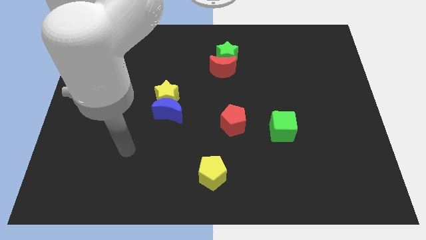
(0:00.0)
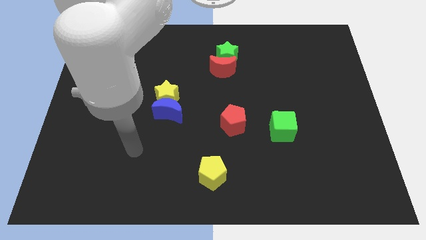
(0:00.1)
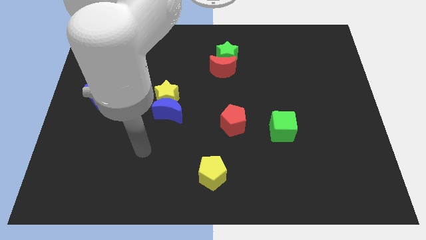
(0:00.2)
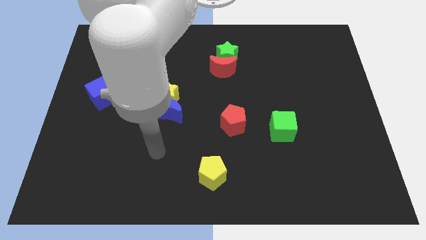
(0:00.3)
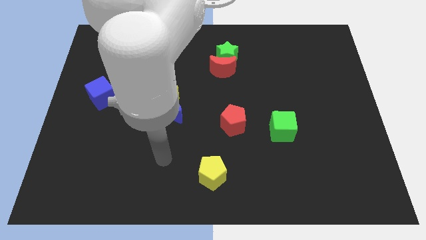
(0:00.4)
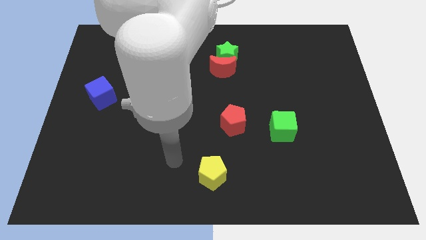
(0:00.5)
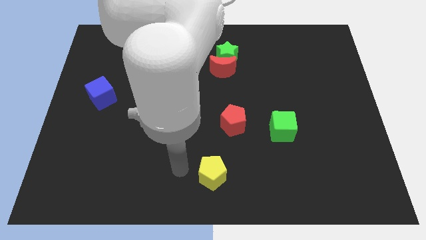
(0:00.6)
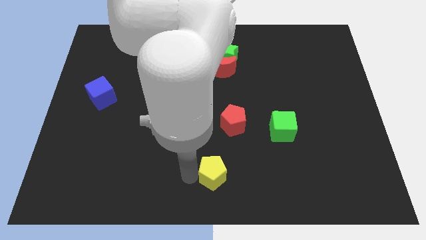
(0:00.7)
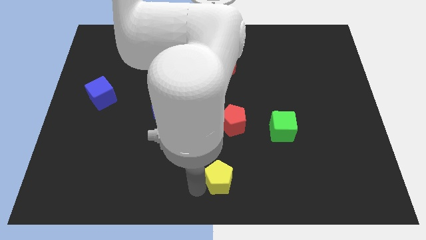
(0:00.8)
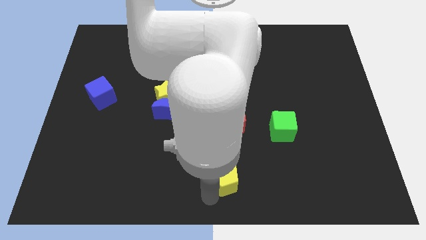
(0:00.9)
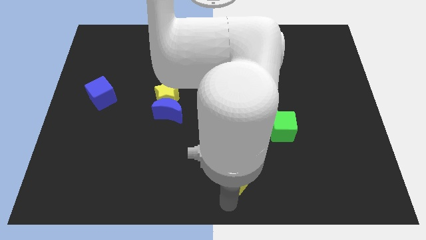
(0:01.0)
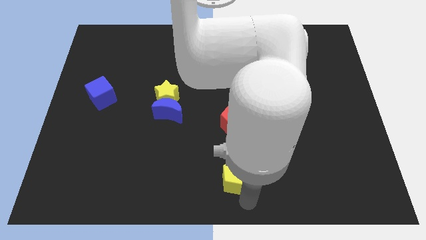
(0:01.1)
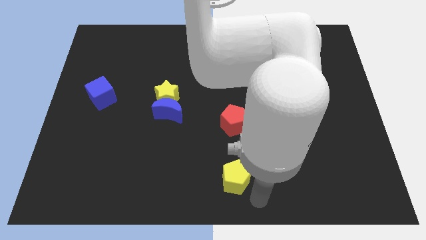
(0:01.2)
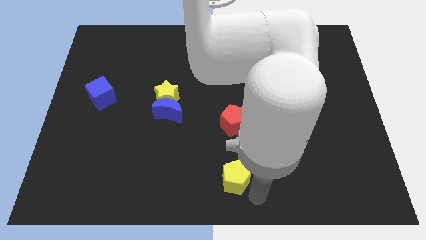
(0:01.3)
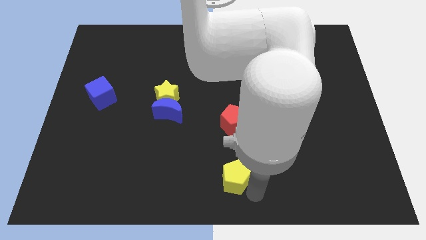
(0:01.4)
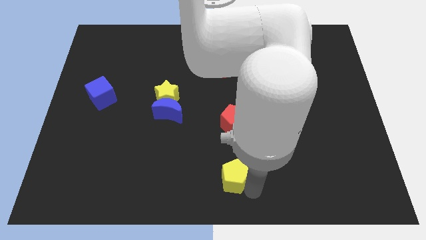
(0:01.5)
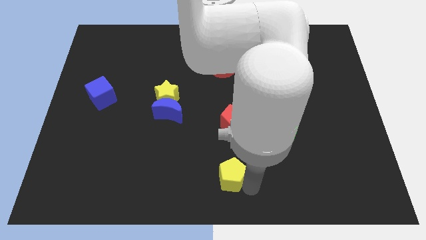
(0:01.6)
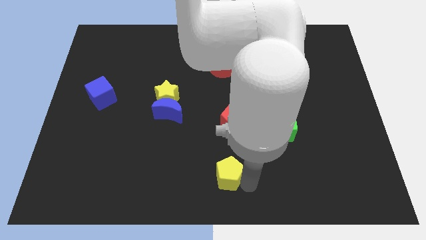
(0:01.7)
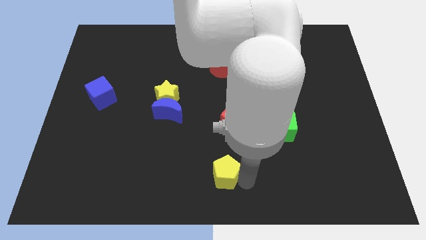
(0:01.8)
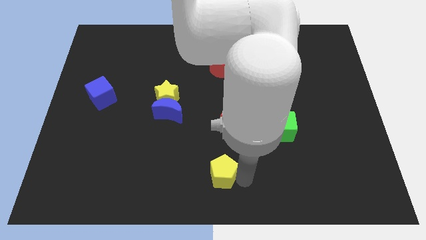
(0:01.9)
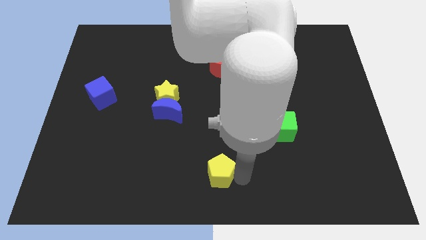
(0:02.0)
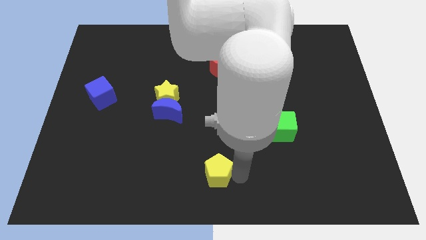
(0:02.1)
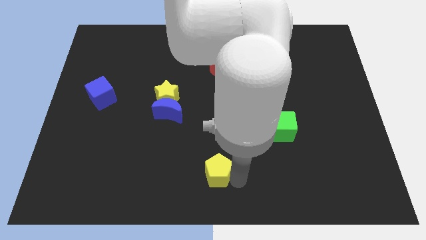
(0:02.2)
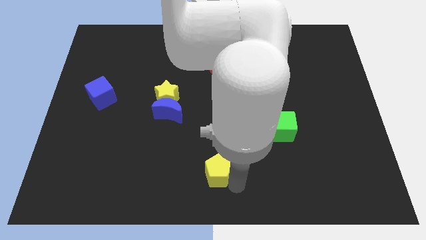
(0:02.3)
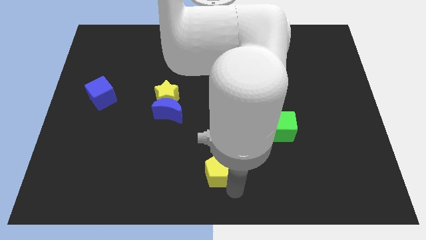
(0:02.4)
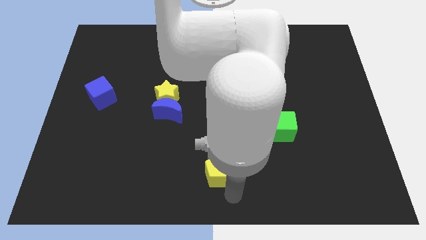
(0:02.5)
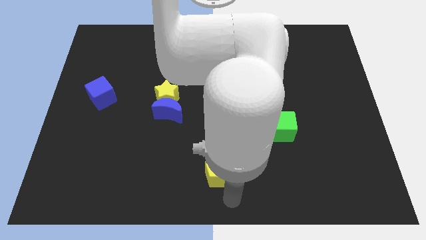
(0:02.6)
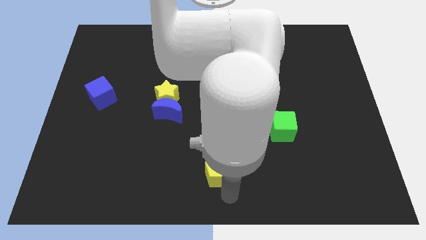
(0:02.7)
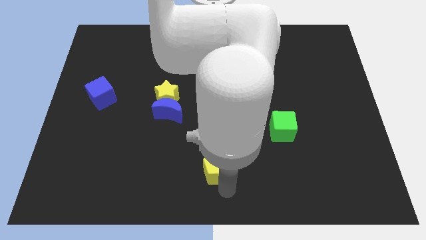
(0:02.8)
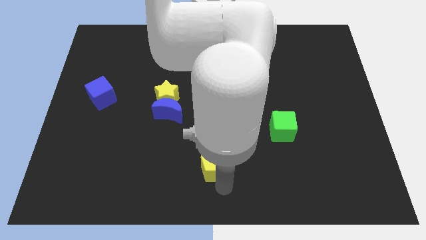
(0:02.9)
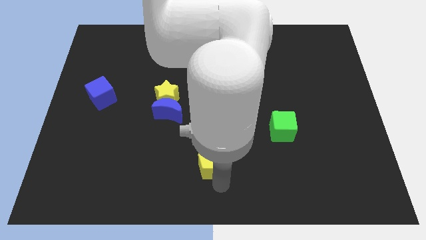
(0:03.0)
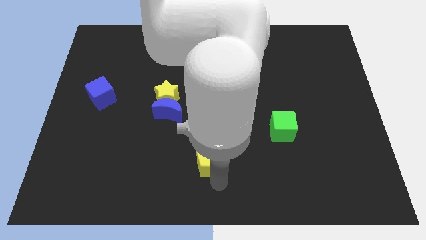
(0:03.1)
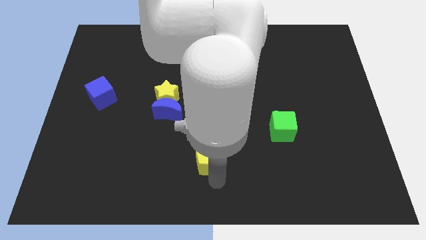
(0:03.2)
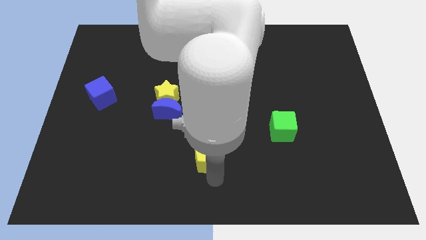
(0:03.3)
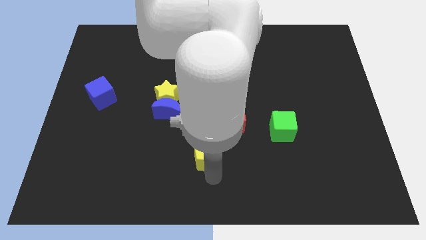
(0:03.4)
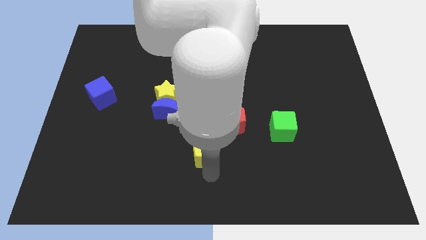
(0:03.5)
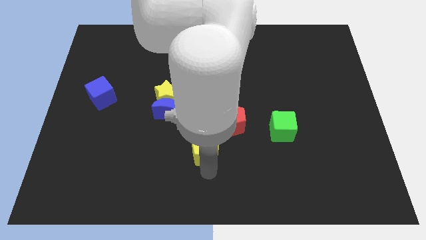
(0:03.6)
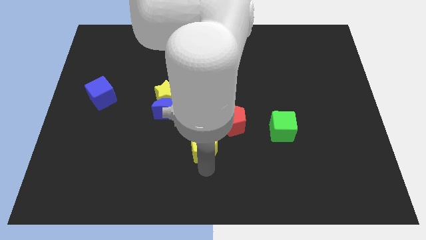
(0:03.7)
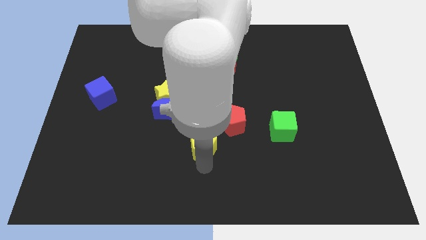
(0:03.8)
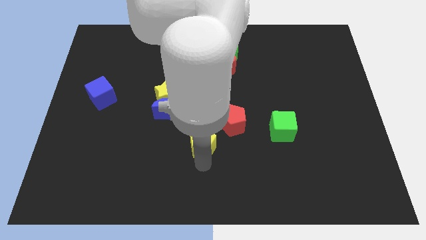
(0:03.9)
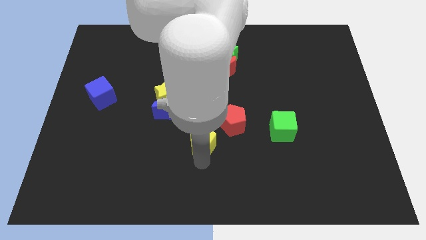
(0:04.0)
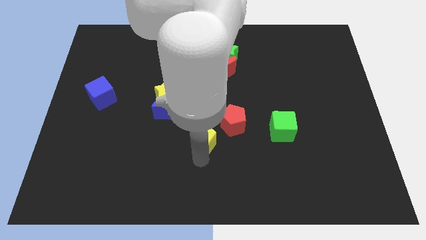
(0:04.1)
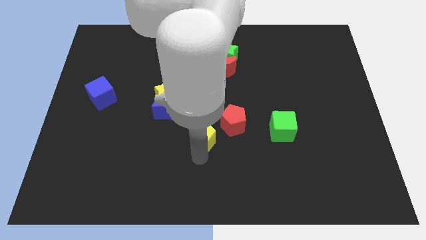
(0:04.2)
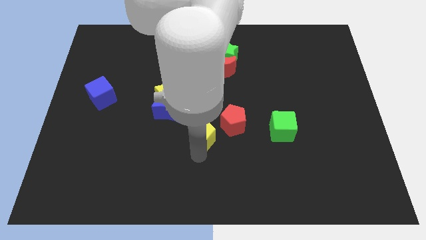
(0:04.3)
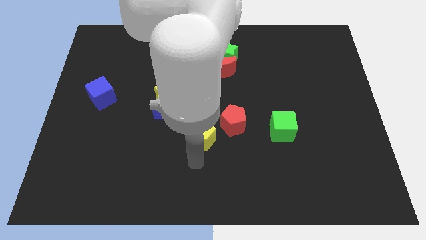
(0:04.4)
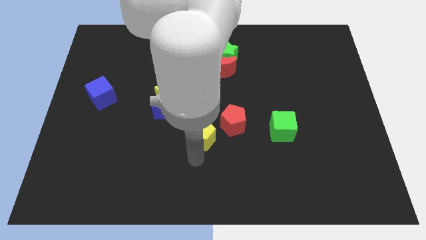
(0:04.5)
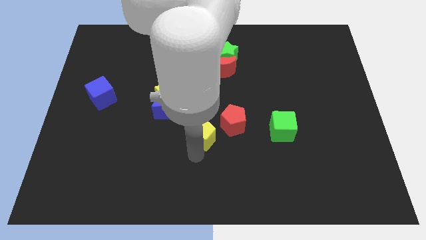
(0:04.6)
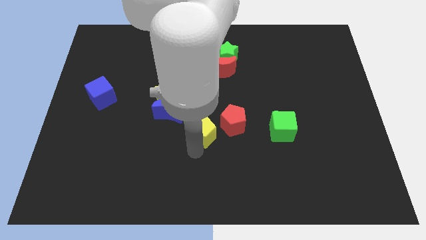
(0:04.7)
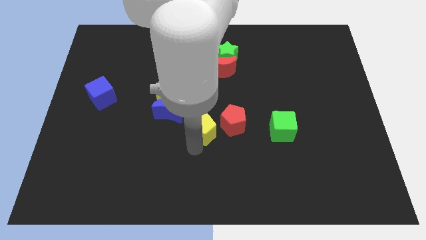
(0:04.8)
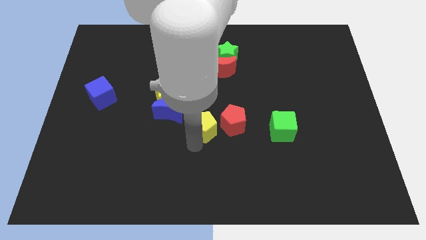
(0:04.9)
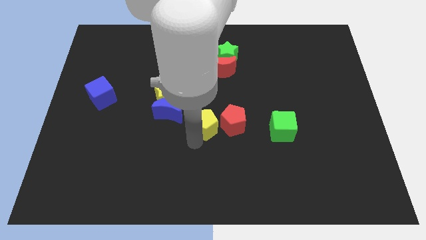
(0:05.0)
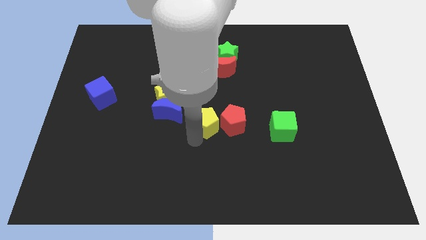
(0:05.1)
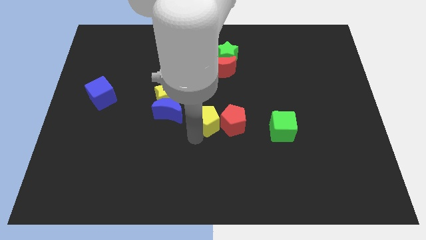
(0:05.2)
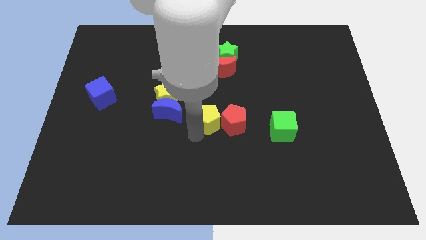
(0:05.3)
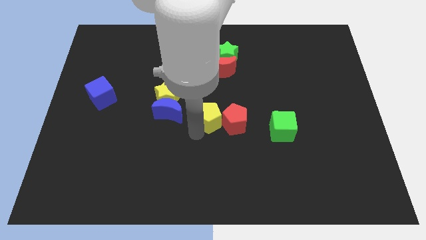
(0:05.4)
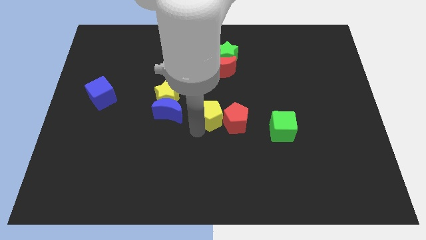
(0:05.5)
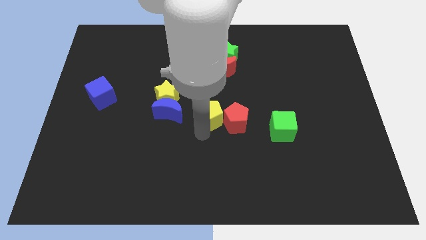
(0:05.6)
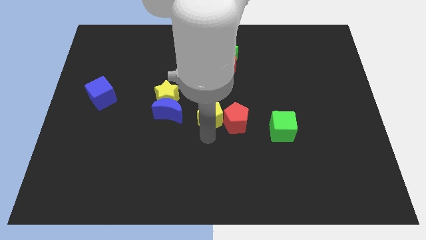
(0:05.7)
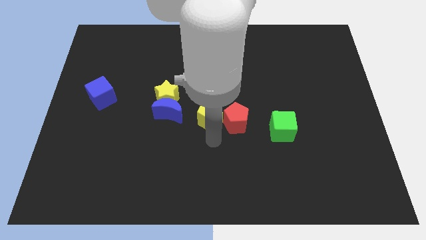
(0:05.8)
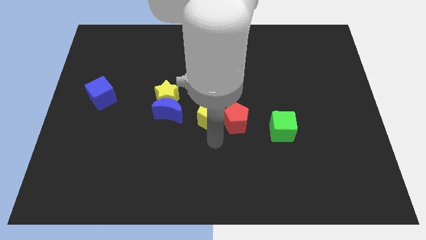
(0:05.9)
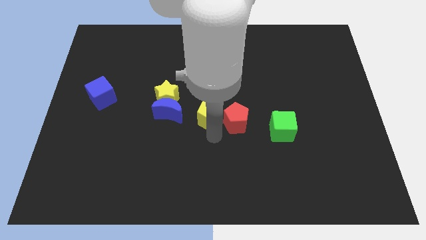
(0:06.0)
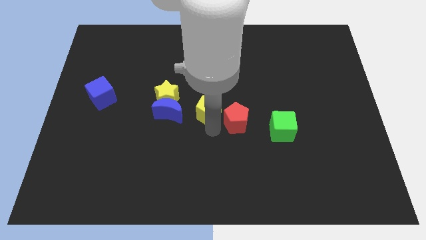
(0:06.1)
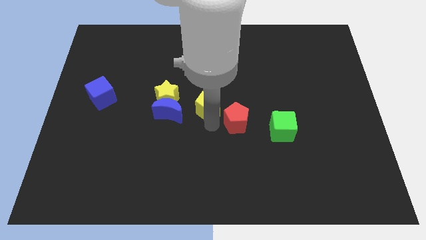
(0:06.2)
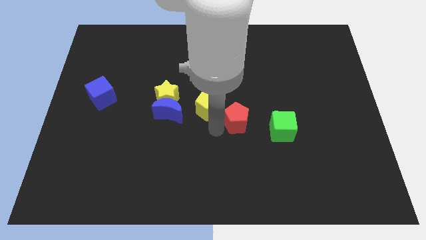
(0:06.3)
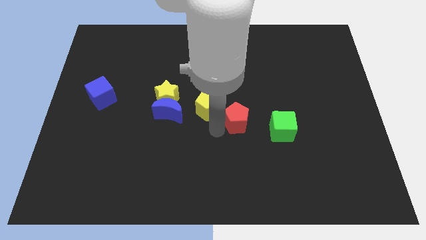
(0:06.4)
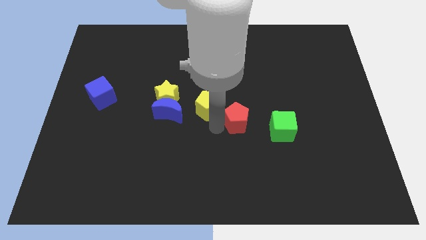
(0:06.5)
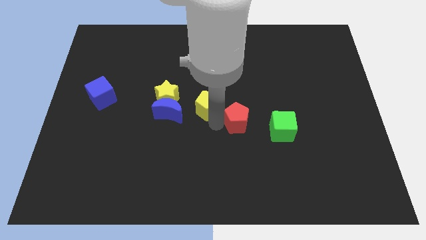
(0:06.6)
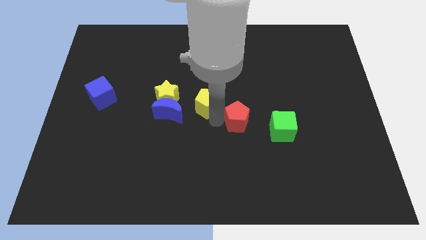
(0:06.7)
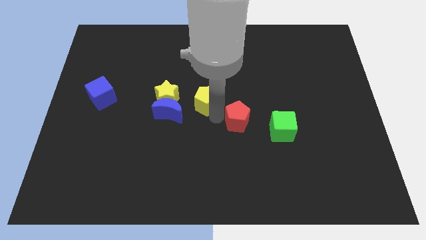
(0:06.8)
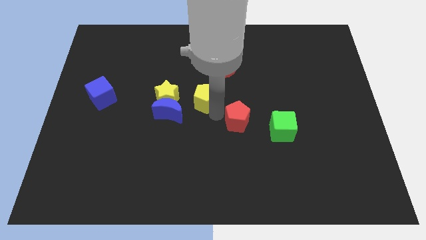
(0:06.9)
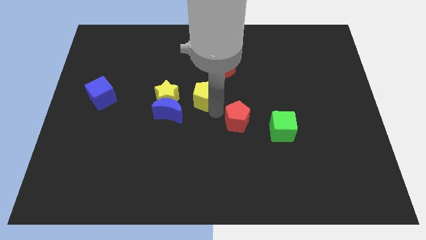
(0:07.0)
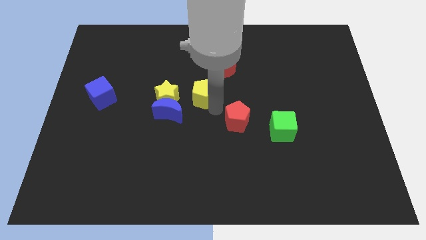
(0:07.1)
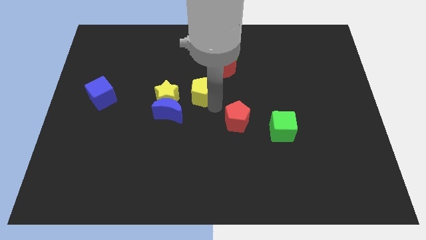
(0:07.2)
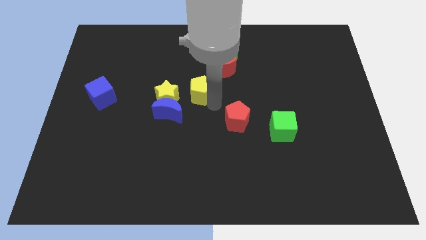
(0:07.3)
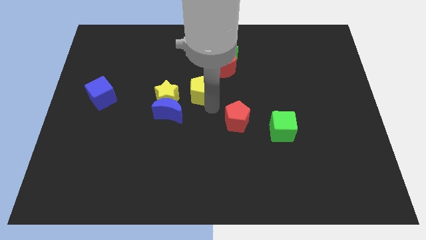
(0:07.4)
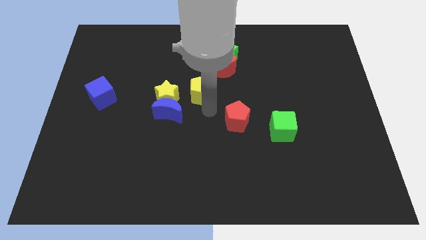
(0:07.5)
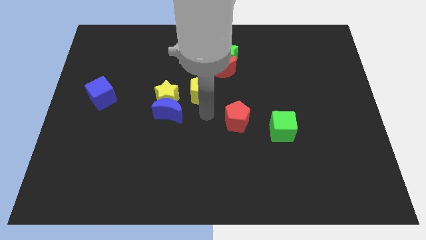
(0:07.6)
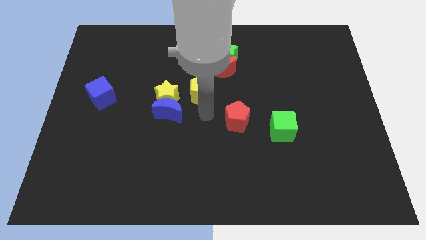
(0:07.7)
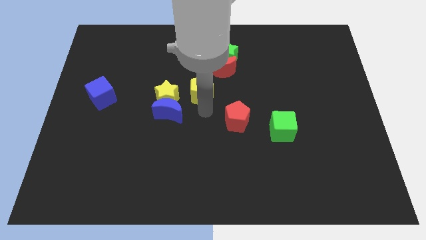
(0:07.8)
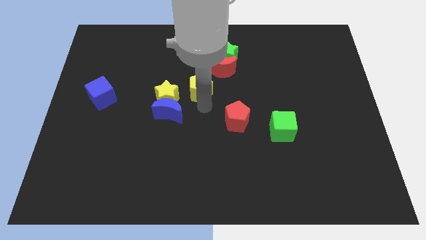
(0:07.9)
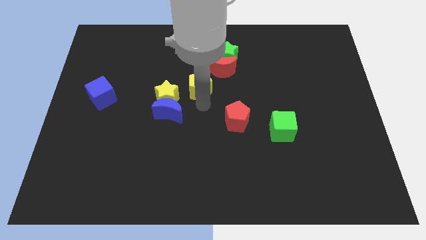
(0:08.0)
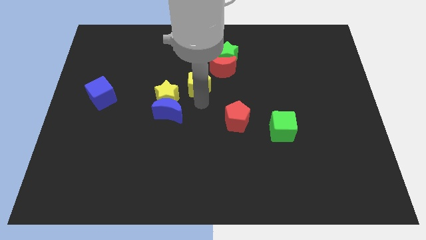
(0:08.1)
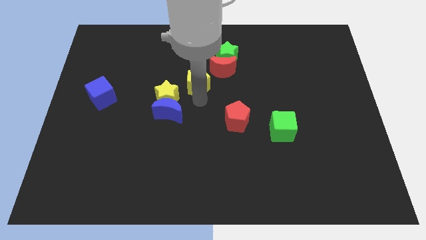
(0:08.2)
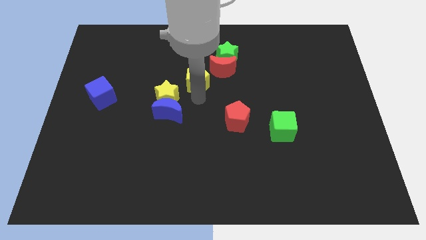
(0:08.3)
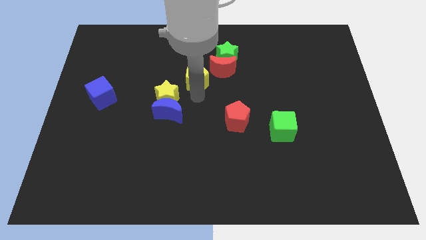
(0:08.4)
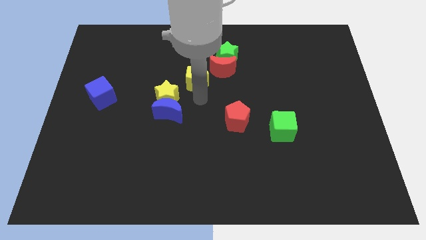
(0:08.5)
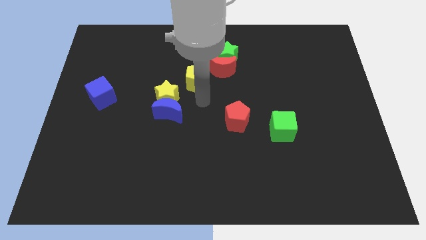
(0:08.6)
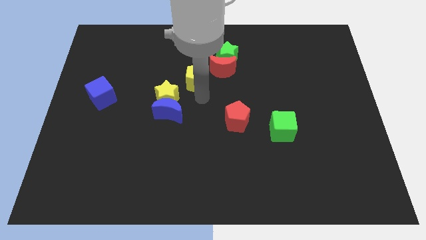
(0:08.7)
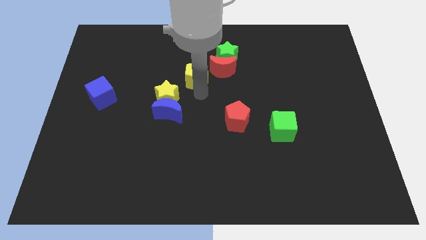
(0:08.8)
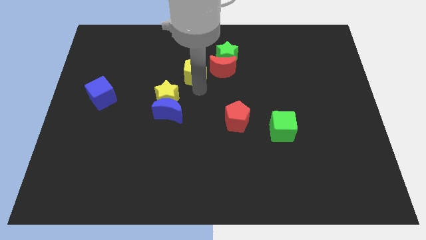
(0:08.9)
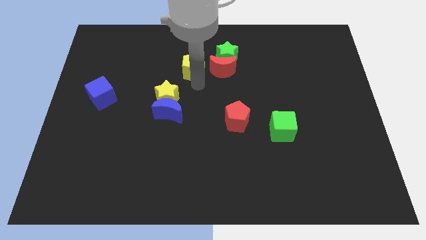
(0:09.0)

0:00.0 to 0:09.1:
slide the yellow pentagon to the left of the green star
